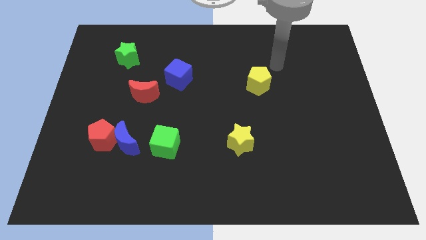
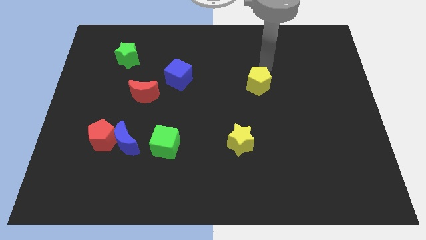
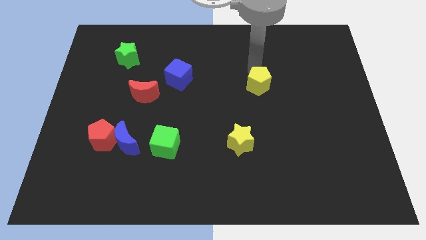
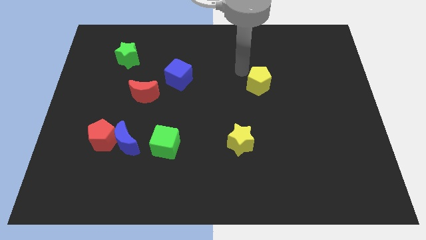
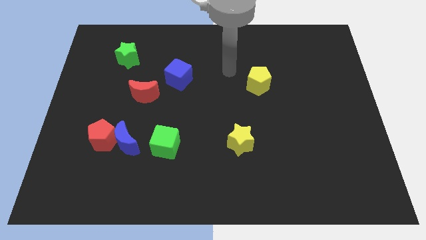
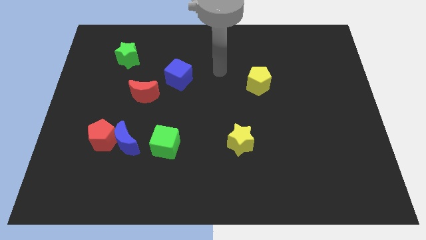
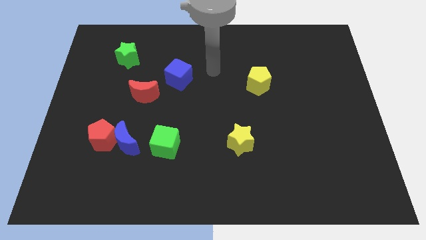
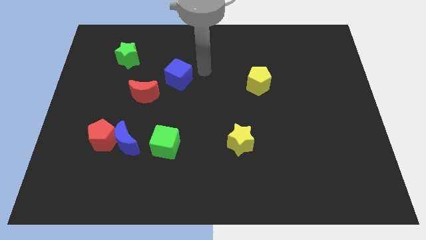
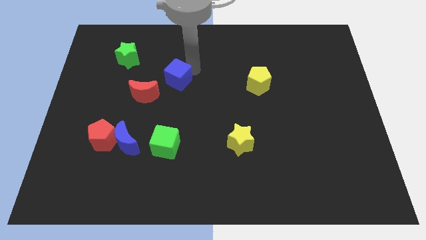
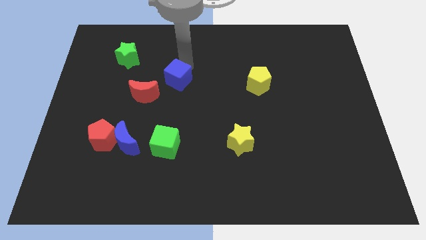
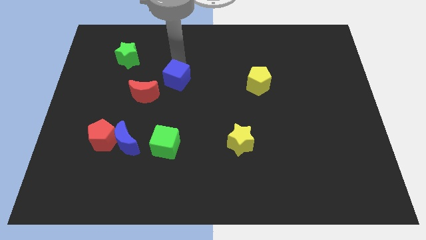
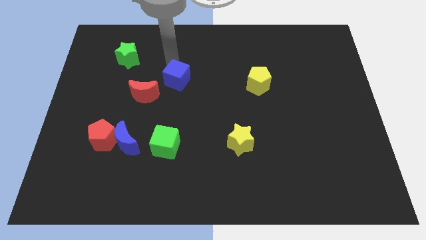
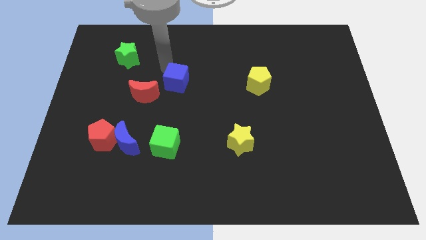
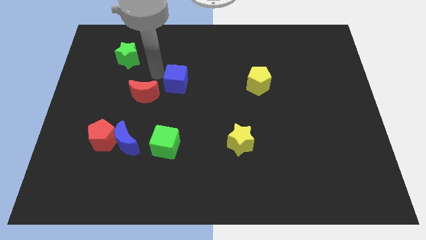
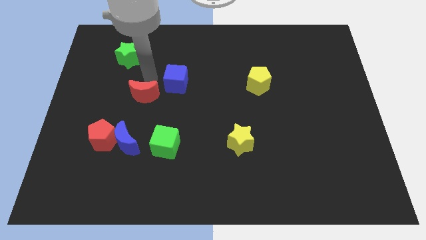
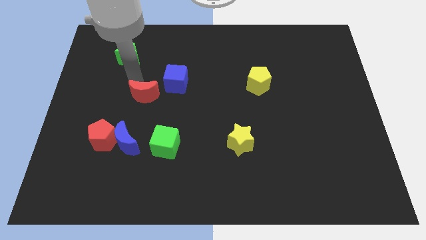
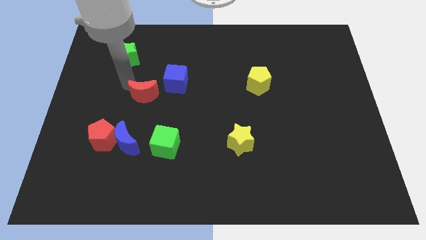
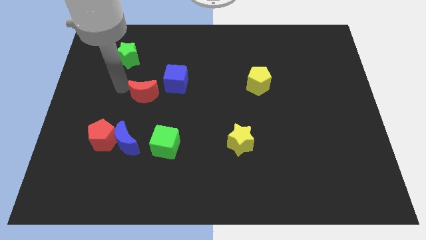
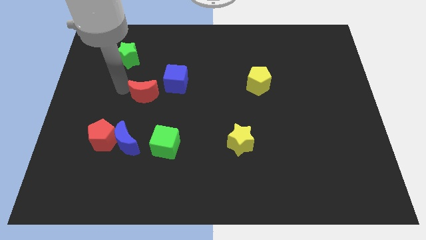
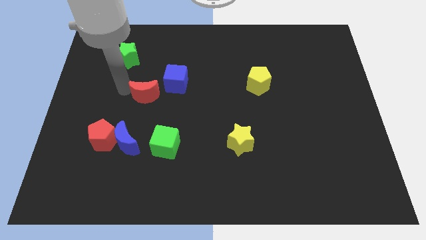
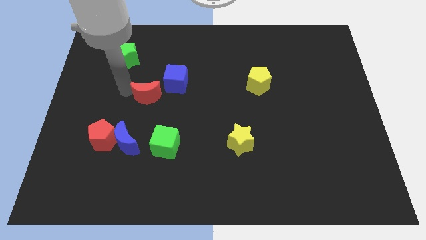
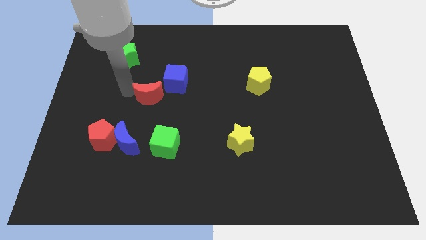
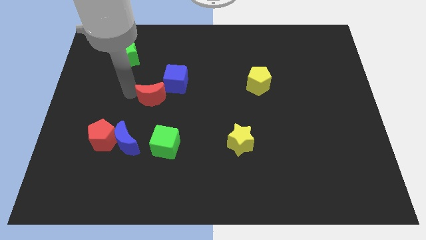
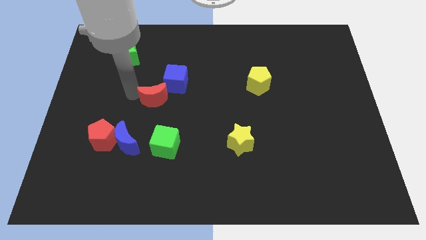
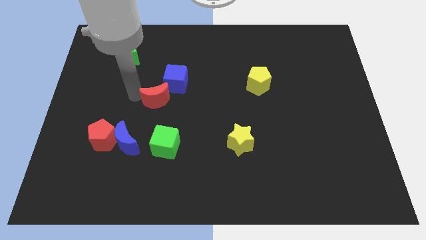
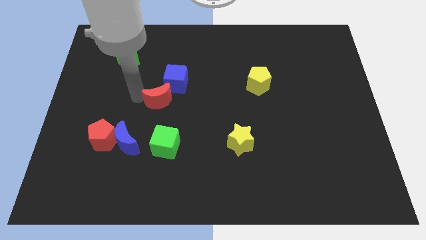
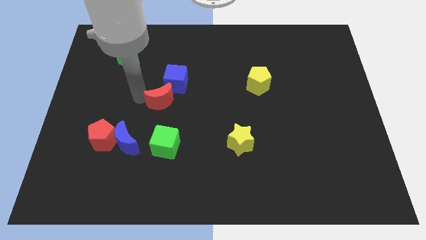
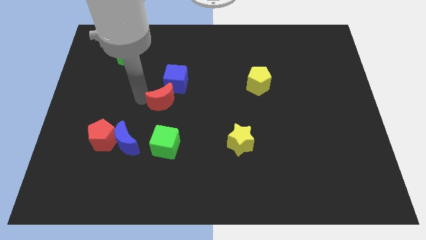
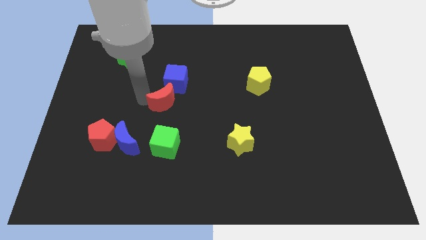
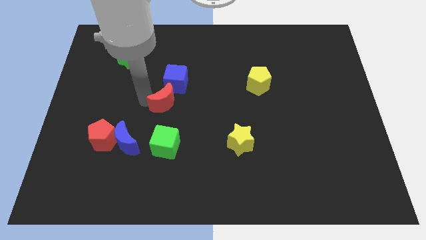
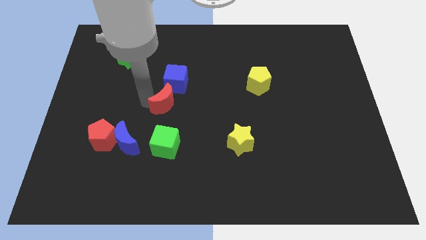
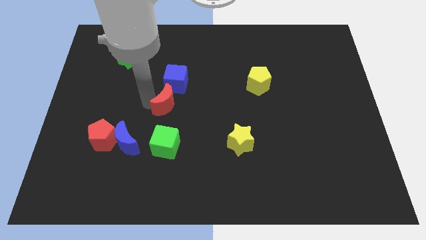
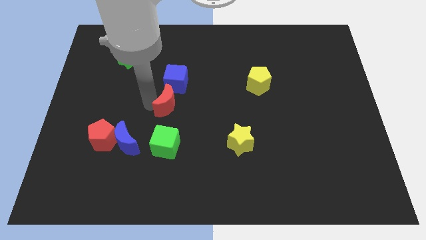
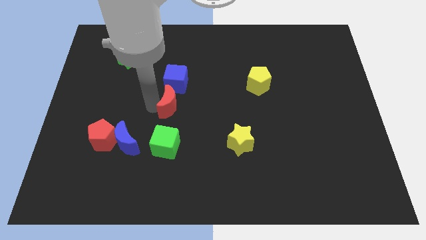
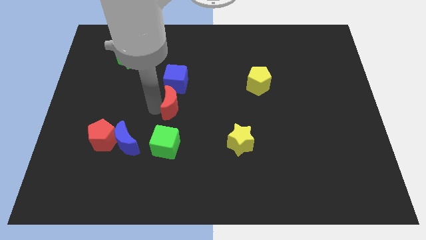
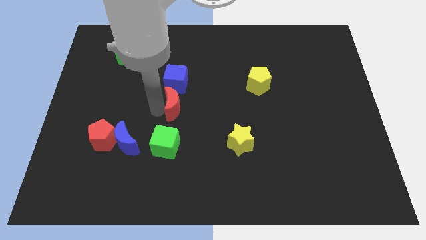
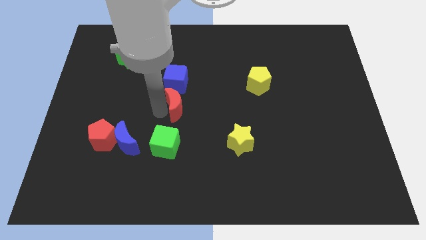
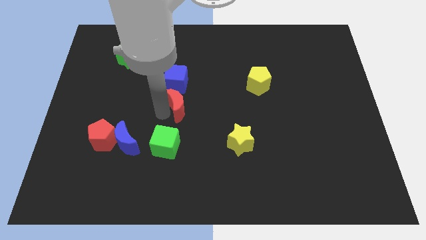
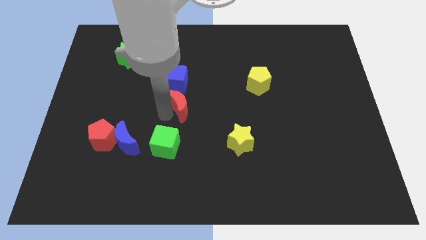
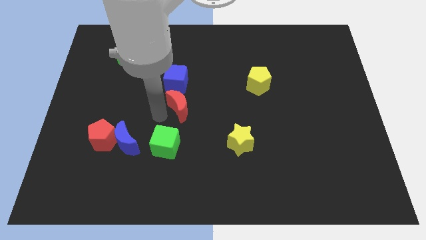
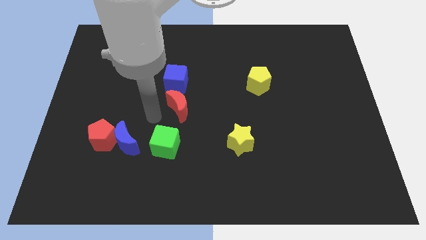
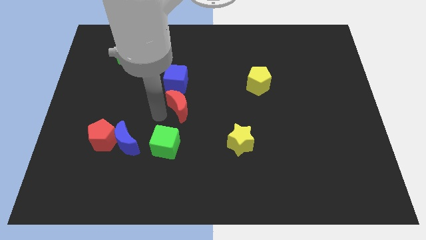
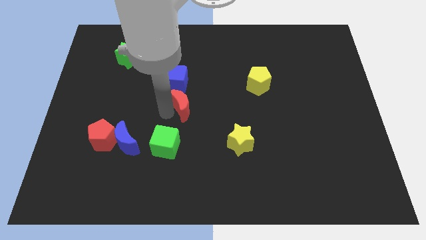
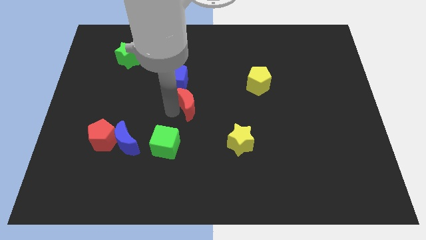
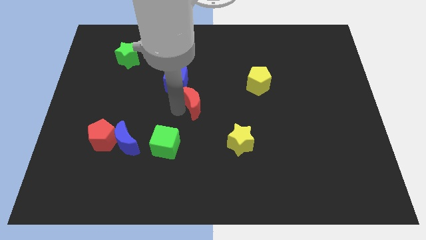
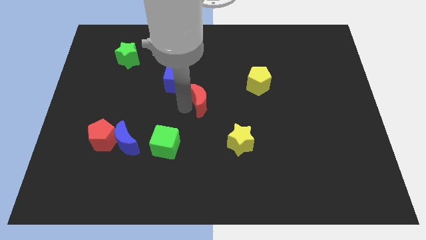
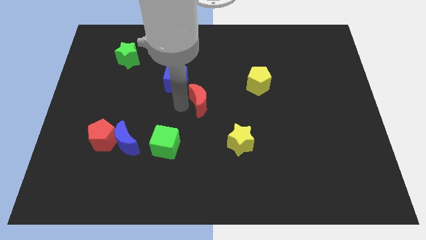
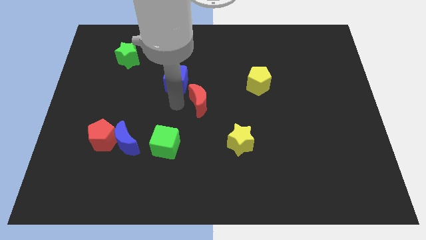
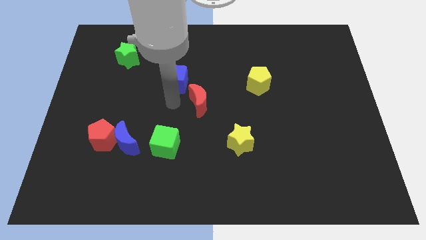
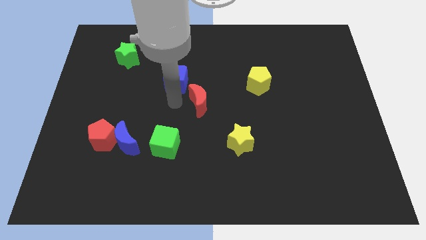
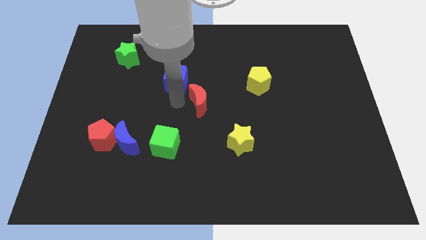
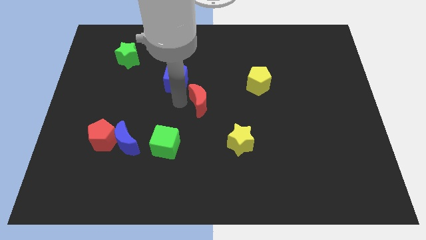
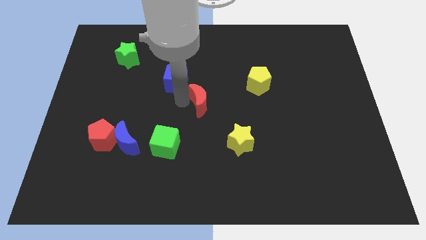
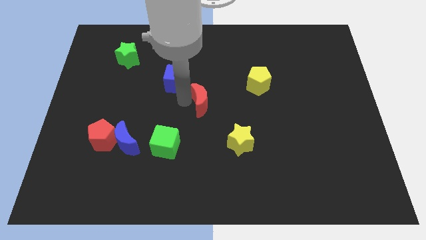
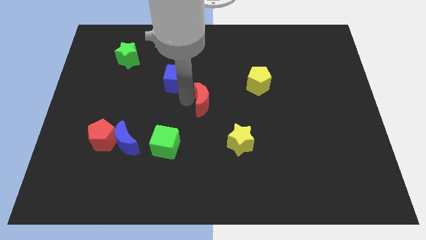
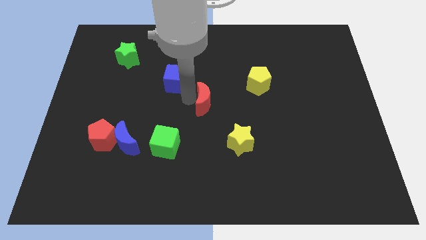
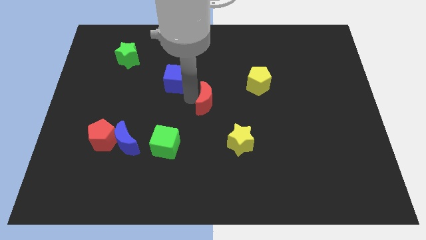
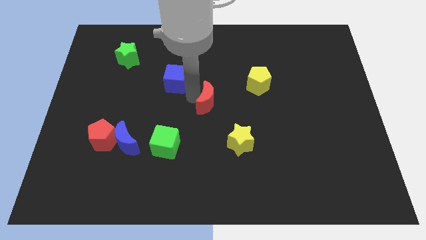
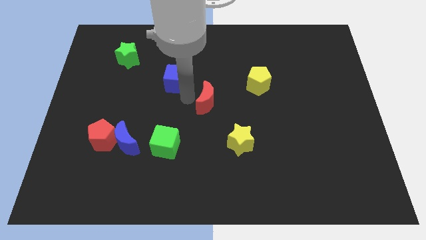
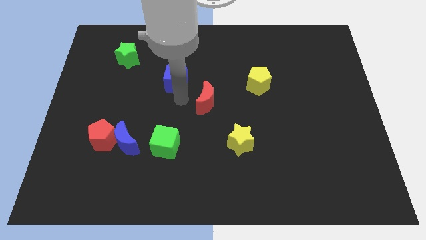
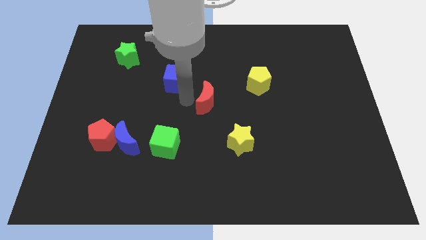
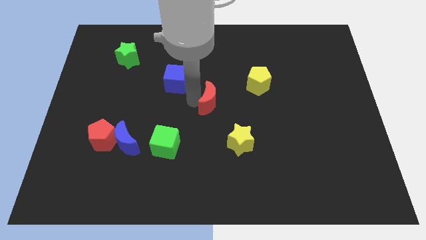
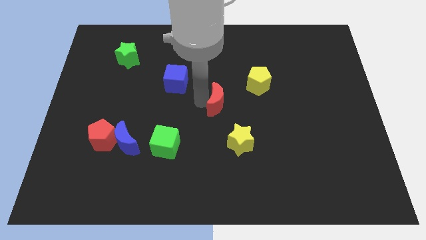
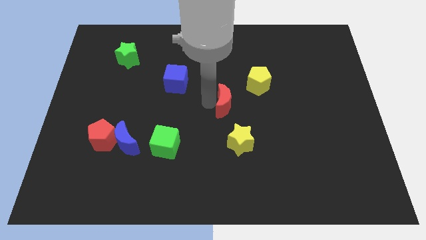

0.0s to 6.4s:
put the red moon to the top of the yellow star

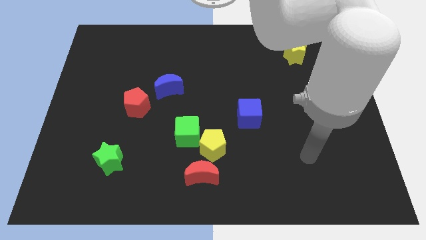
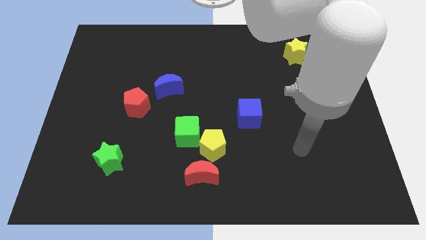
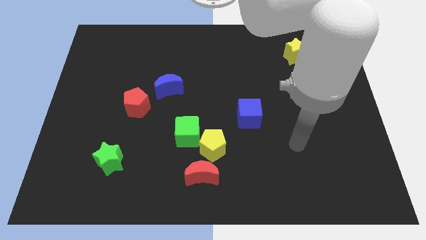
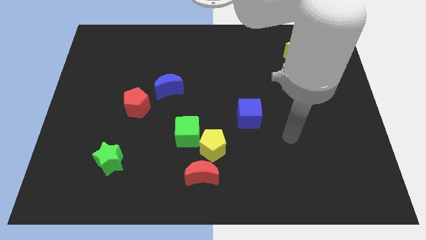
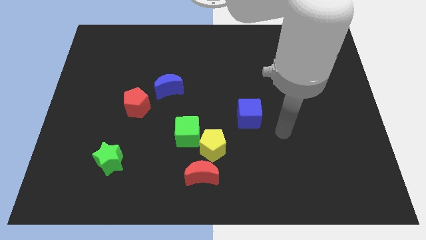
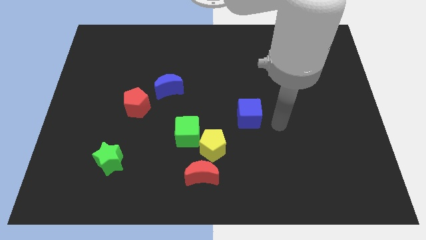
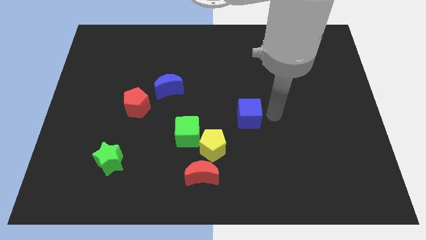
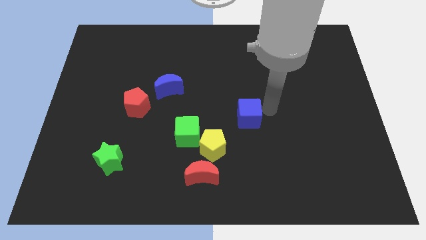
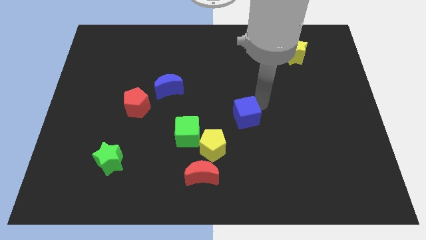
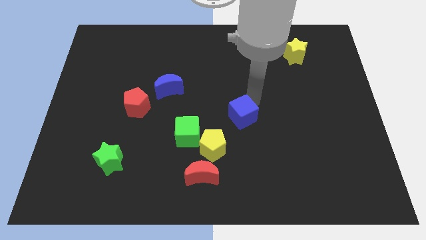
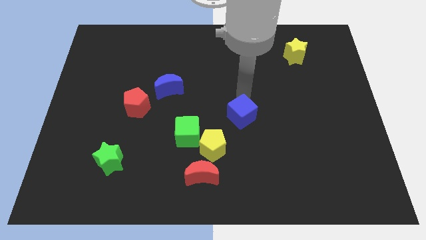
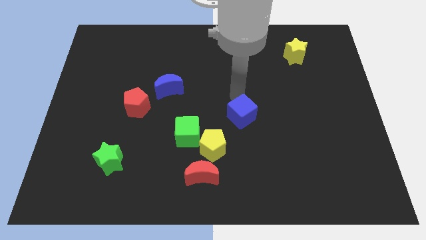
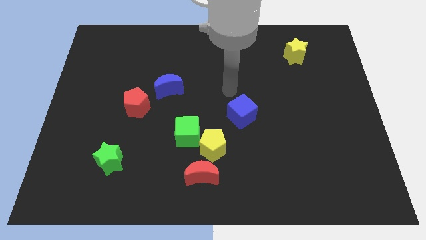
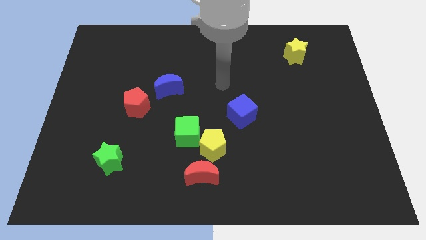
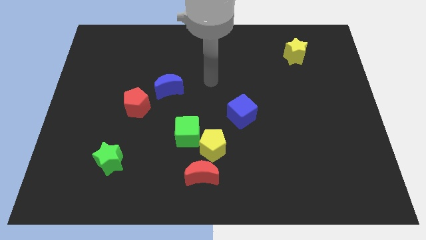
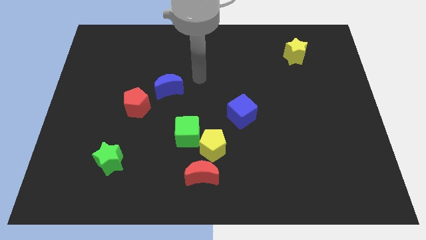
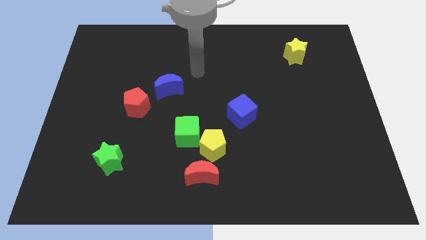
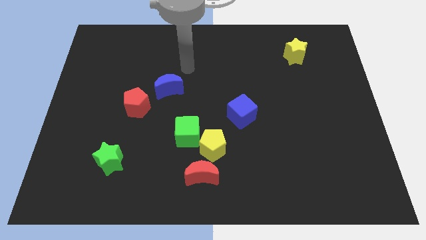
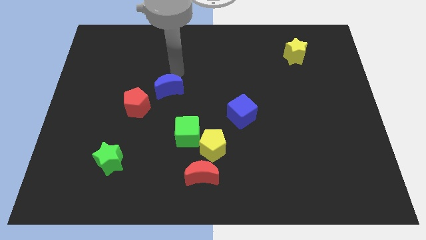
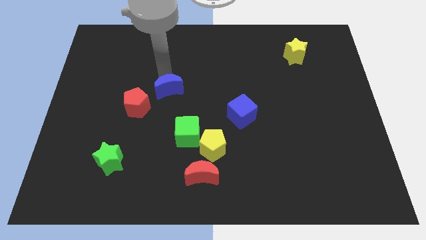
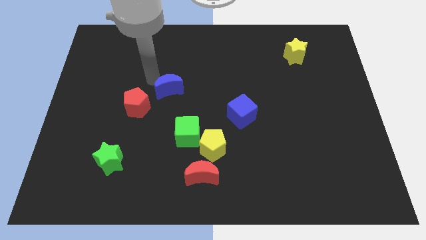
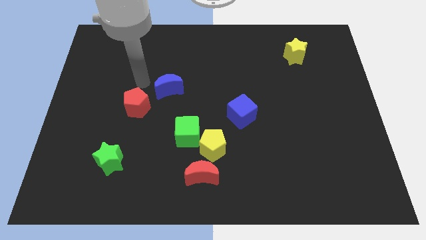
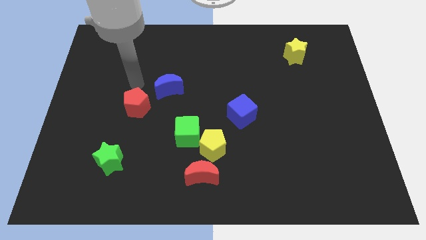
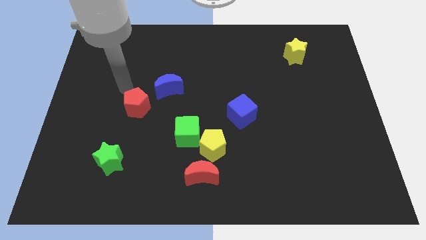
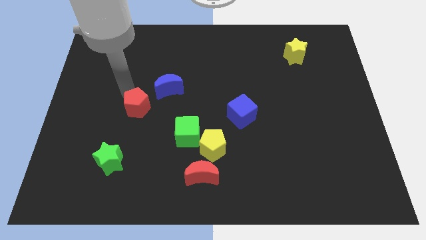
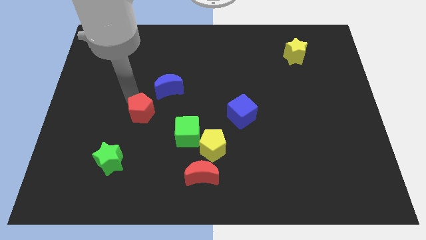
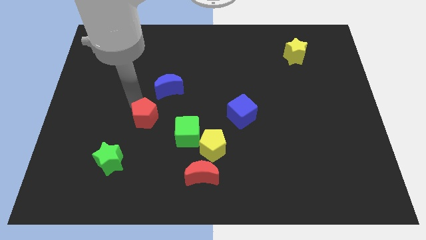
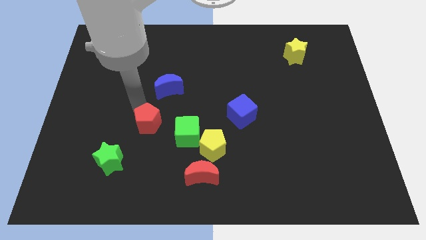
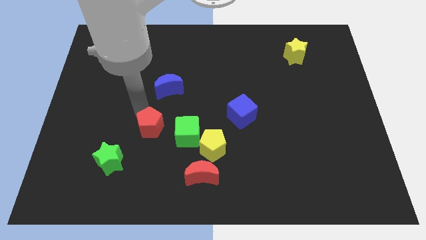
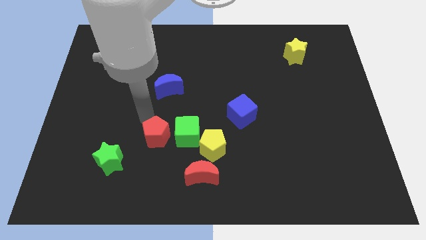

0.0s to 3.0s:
move the red pentagon to the bottom left of the green cube
